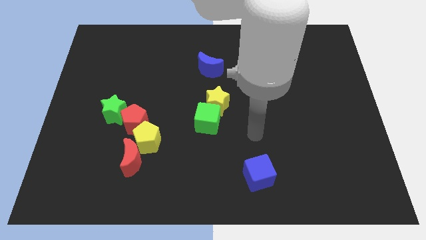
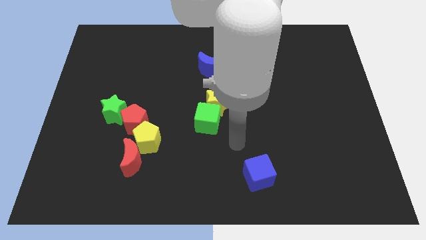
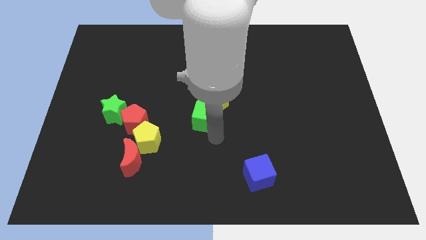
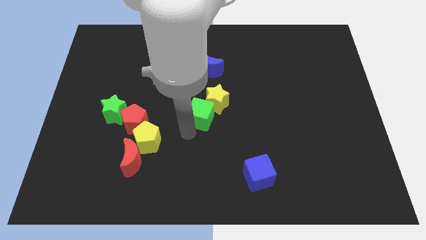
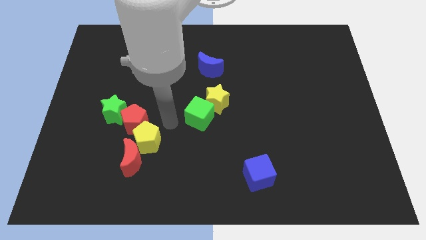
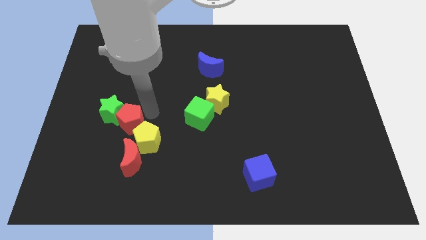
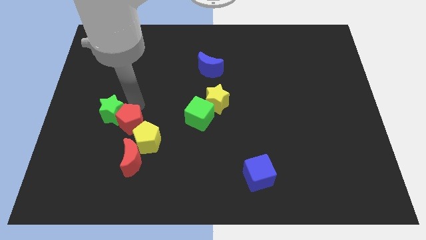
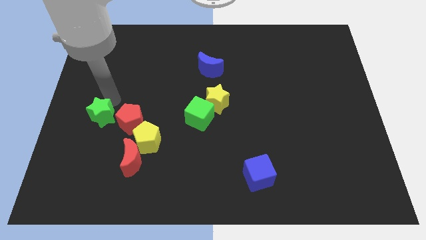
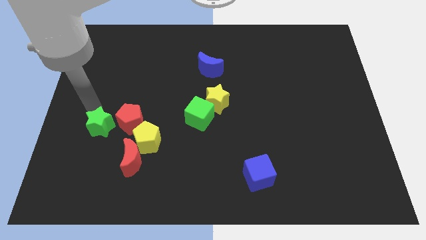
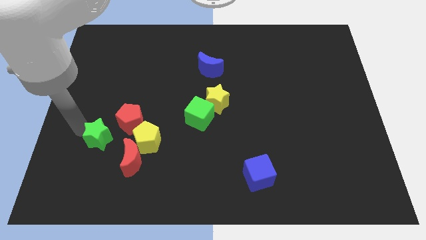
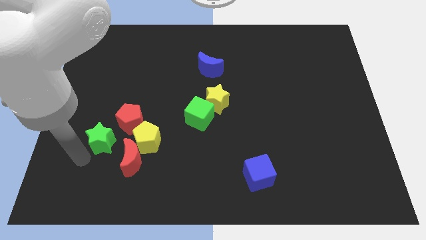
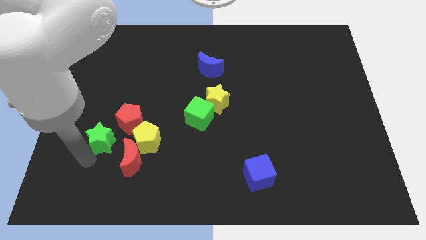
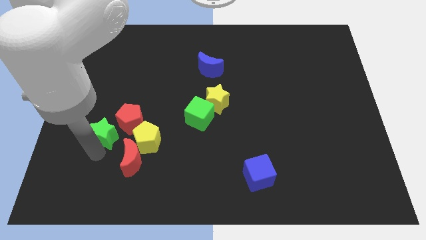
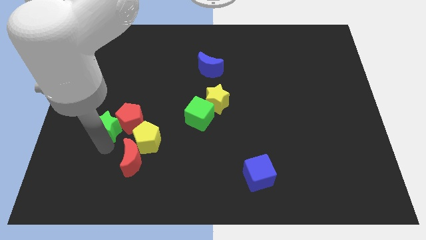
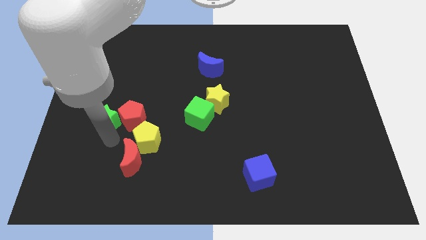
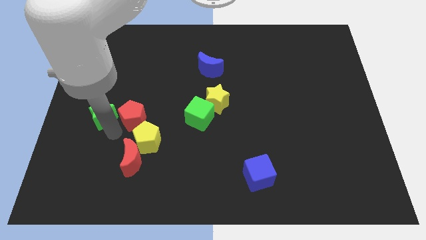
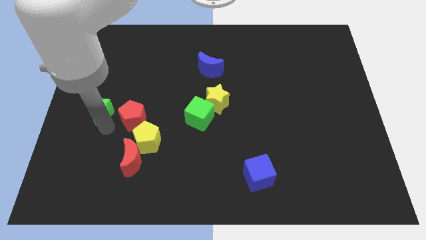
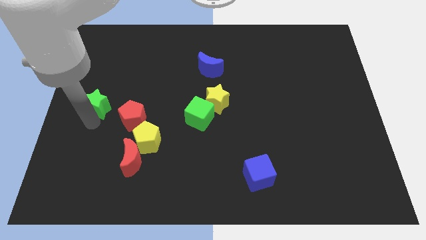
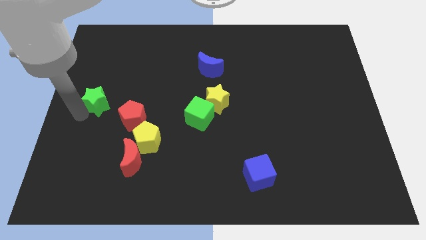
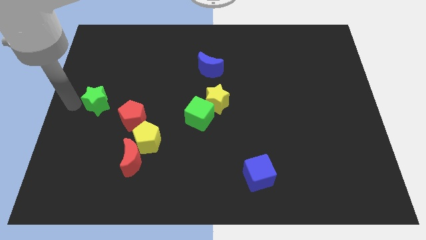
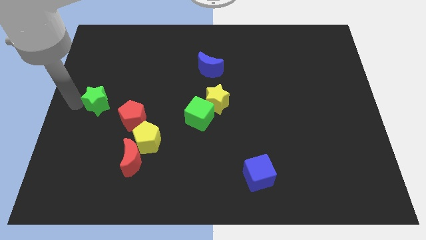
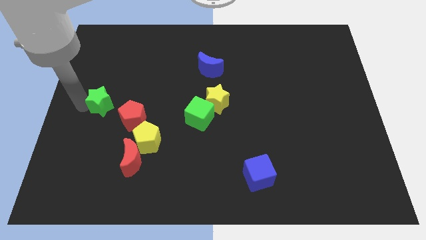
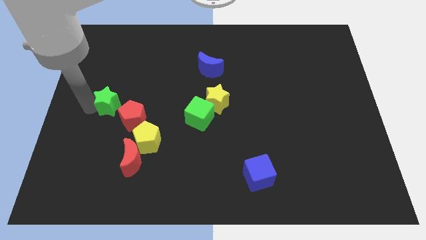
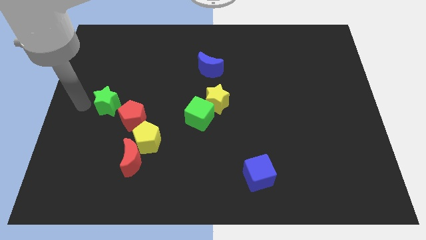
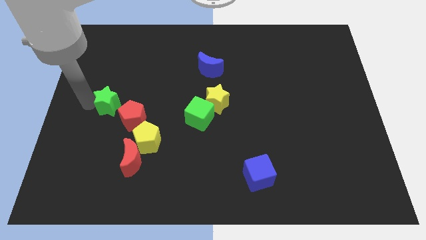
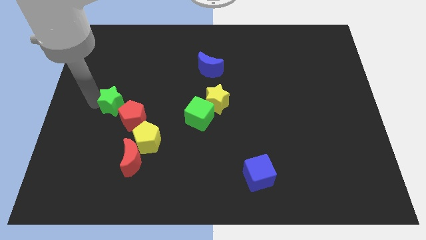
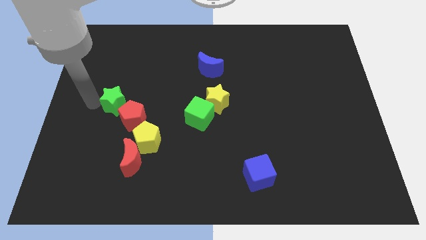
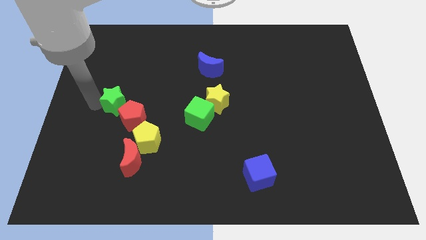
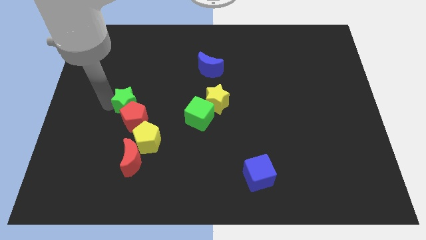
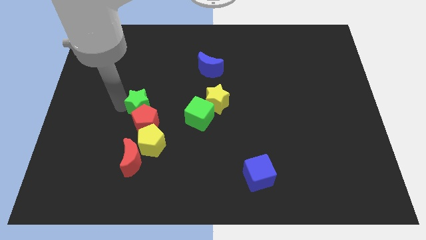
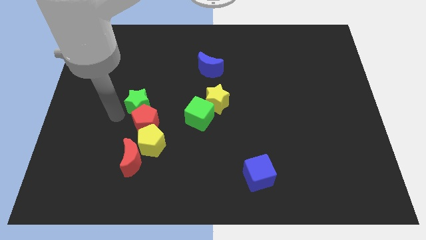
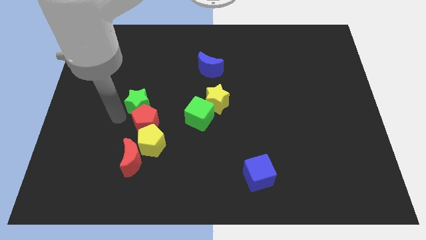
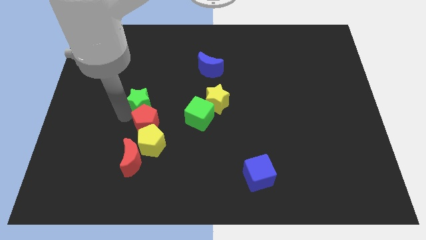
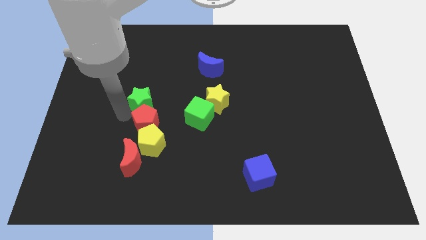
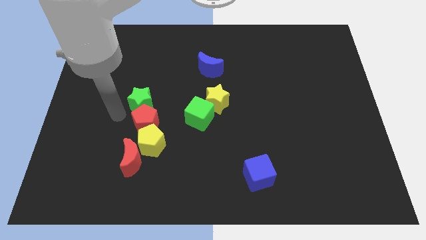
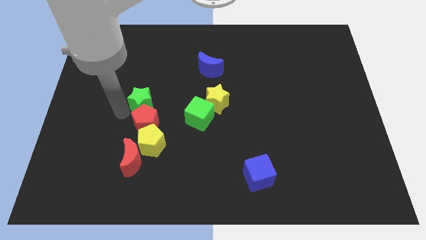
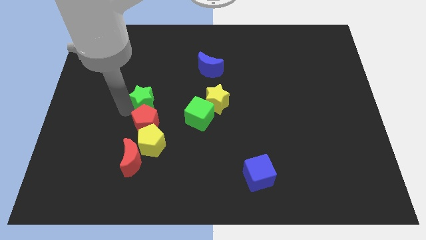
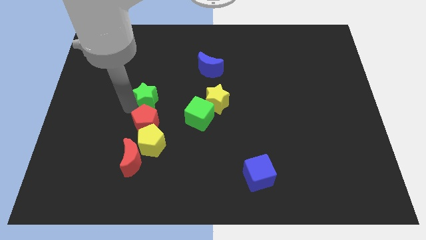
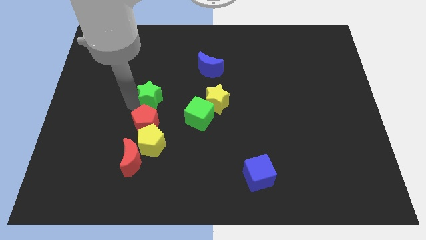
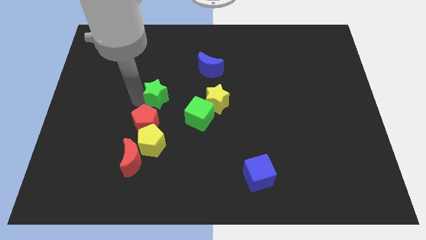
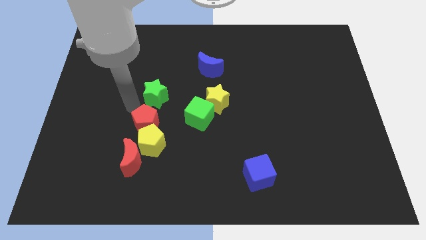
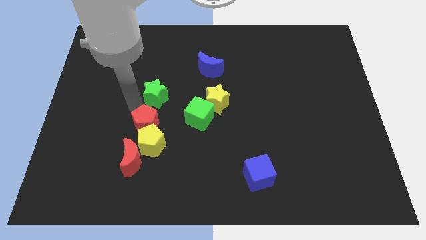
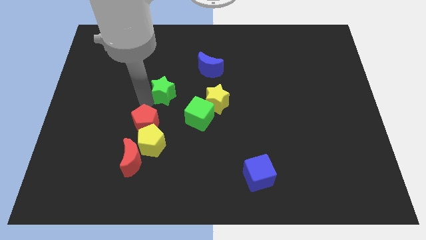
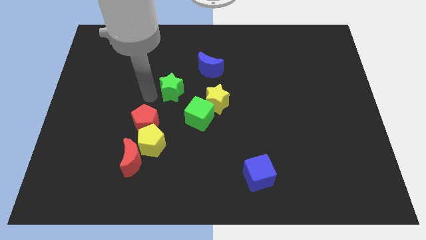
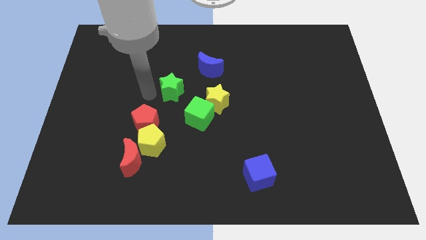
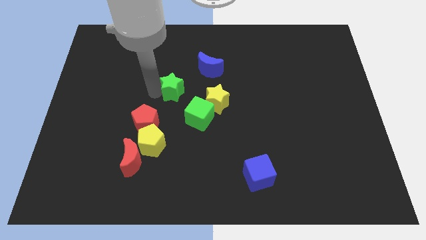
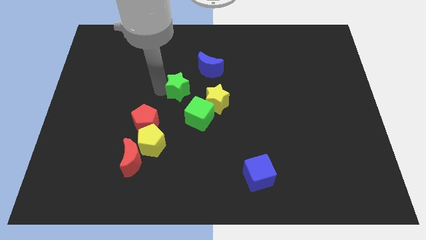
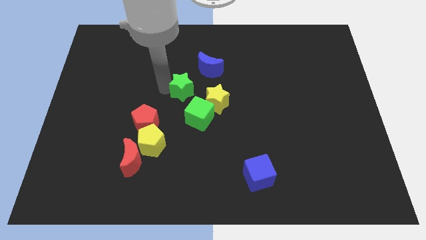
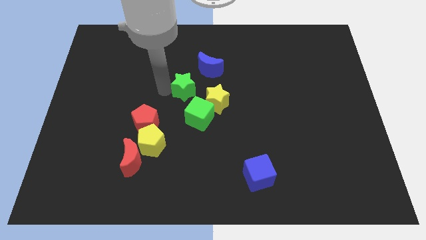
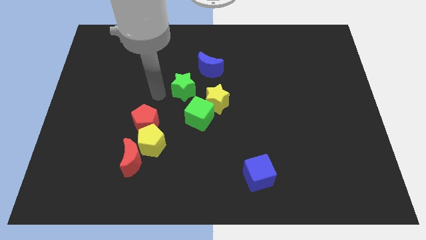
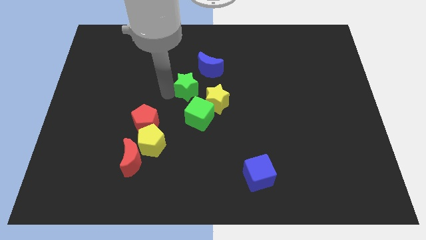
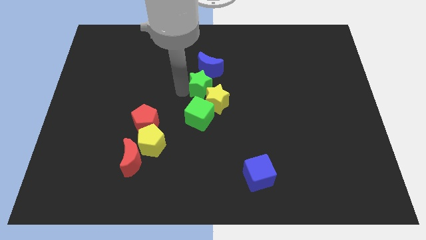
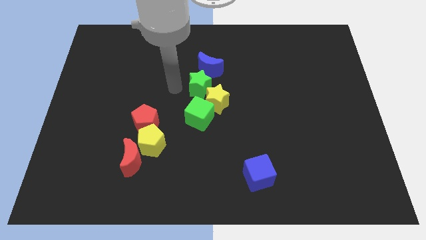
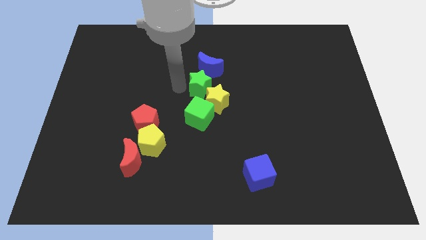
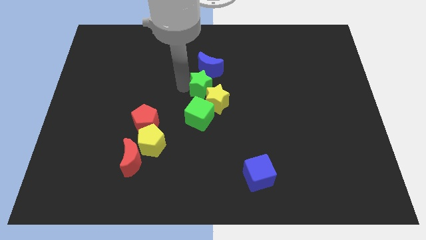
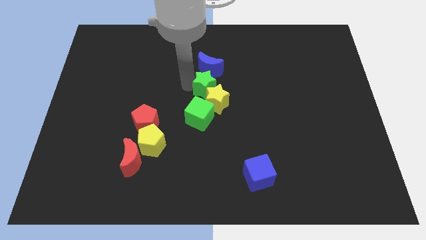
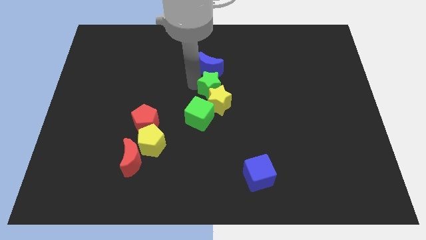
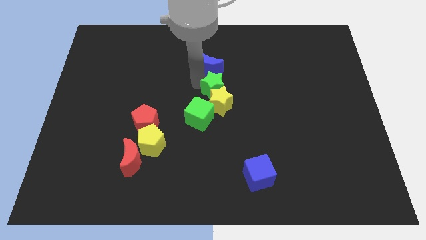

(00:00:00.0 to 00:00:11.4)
slide the green star to the right

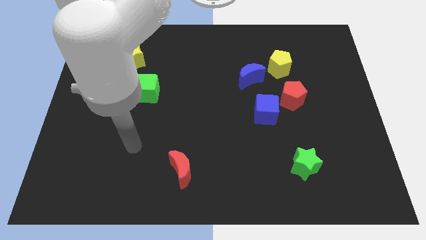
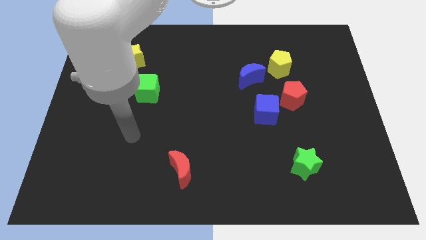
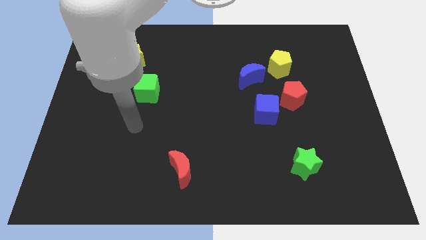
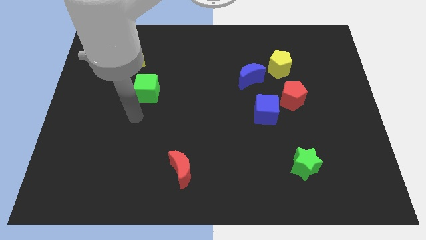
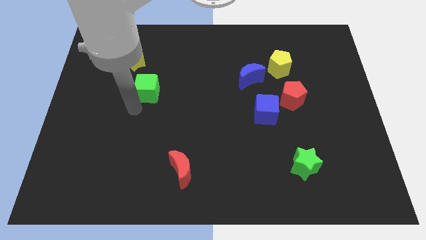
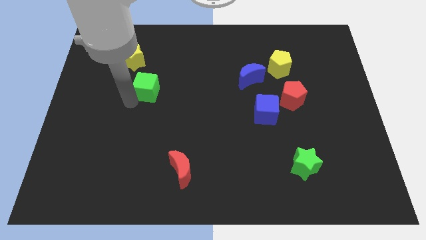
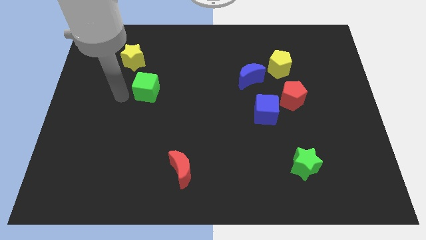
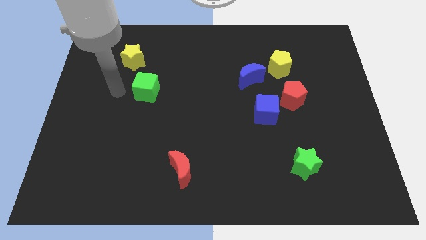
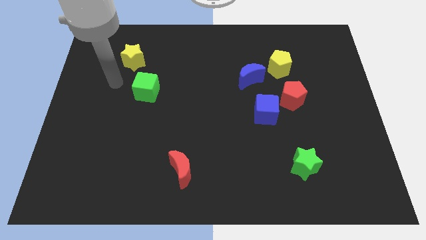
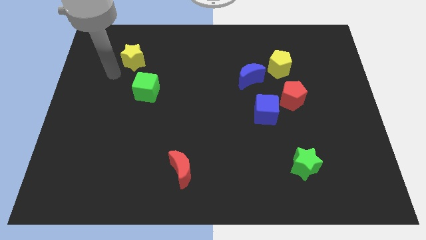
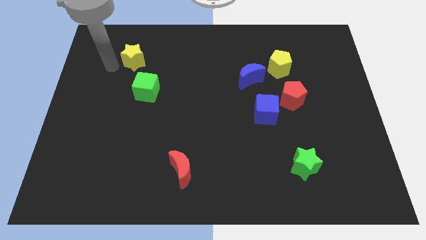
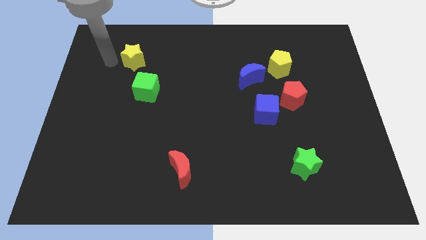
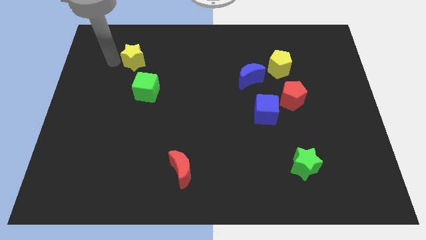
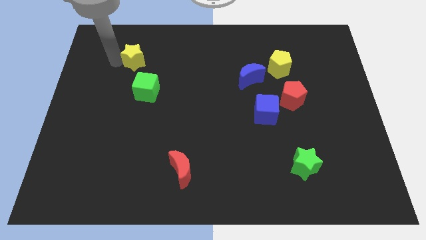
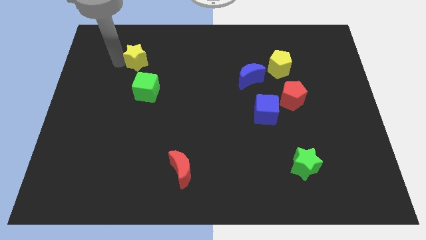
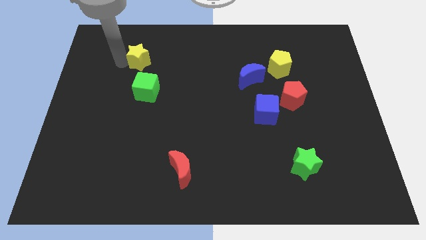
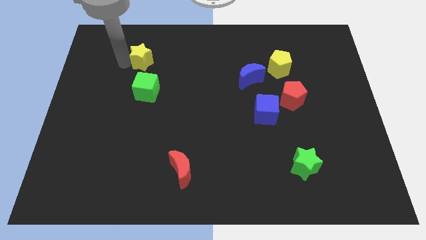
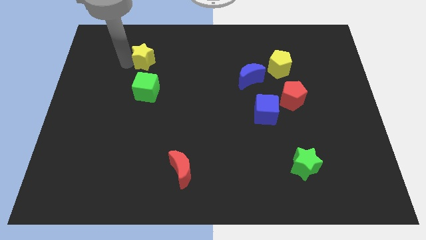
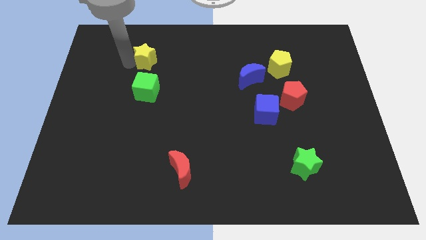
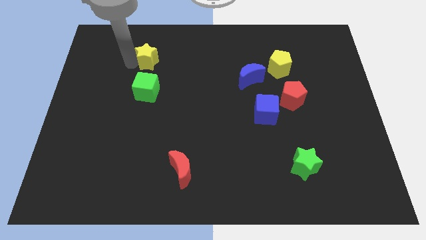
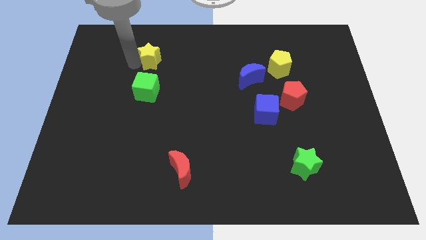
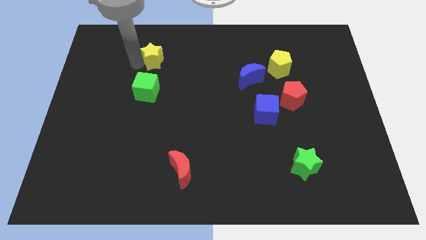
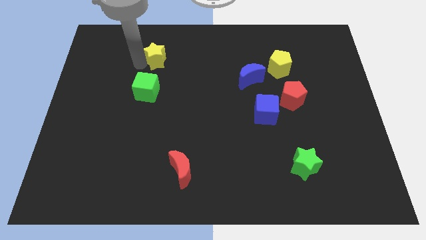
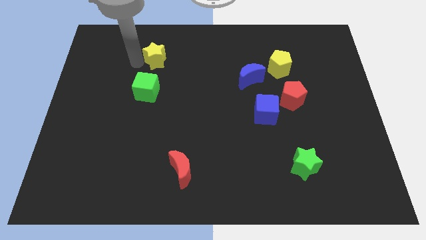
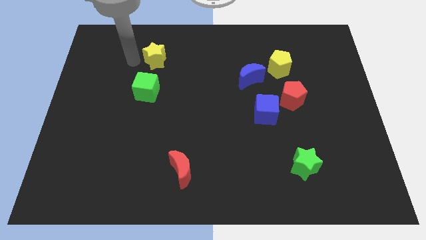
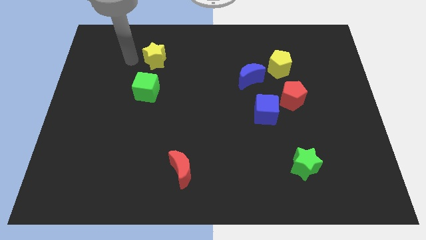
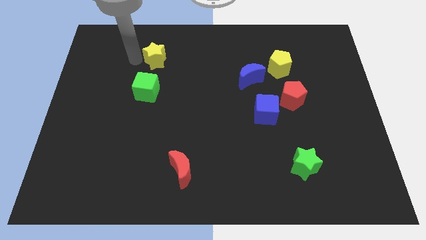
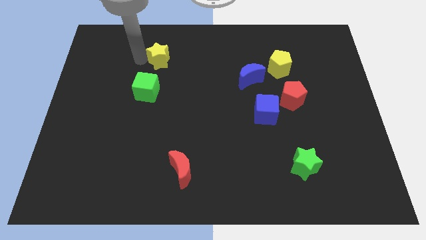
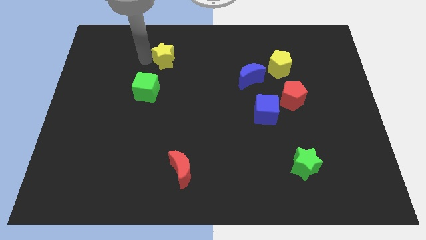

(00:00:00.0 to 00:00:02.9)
slide the yellow star to the right a little
